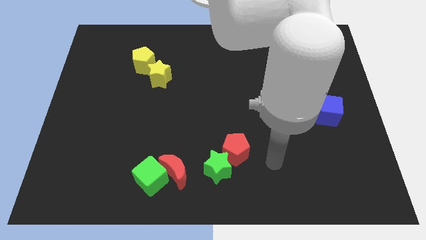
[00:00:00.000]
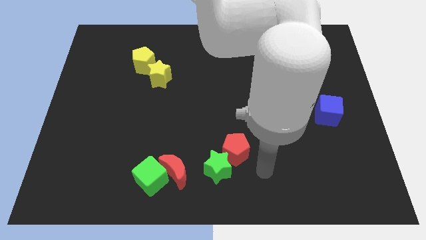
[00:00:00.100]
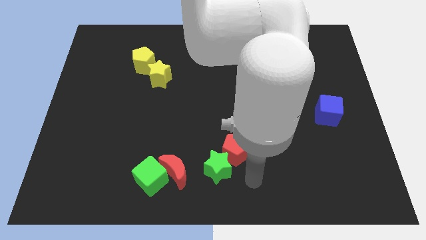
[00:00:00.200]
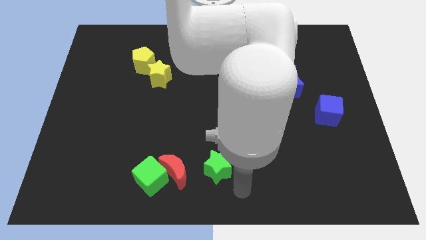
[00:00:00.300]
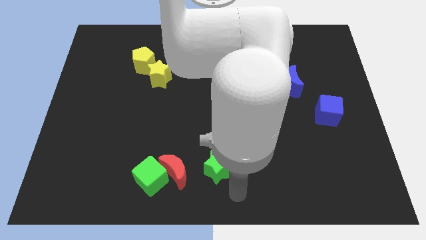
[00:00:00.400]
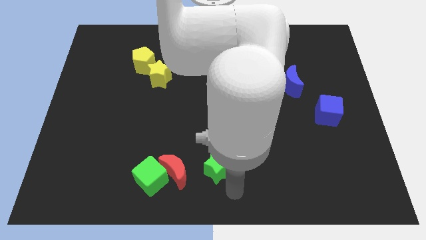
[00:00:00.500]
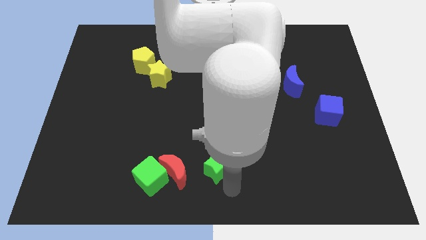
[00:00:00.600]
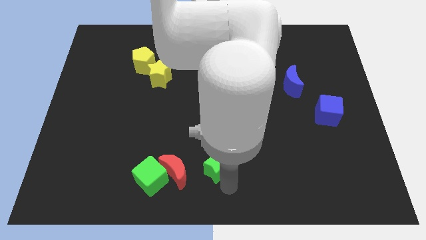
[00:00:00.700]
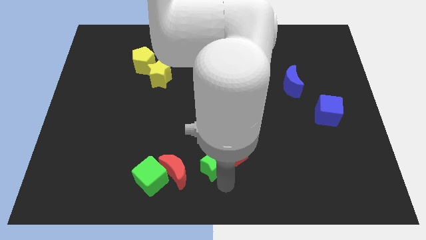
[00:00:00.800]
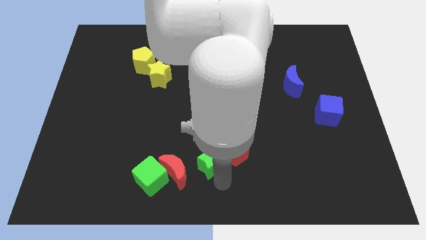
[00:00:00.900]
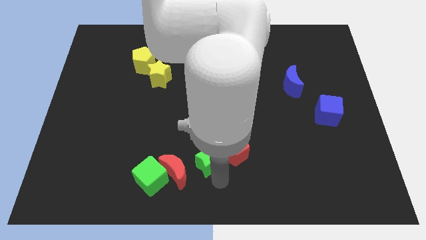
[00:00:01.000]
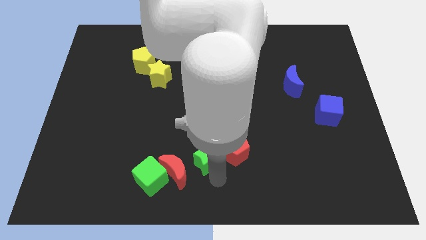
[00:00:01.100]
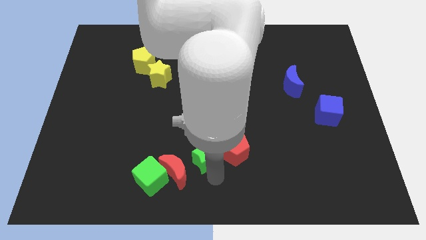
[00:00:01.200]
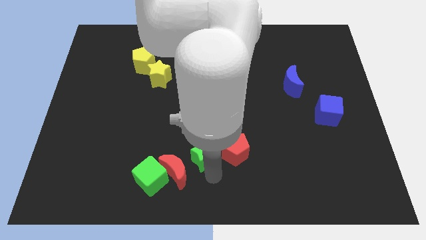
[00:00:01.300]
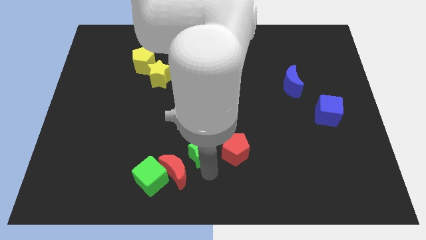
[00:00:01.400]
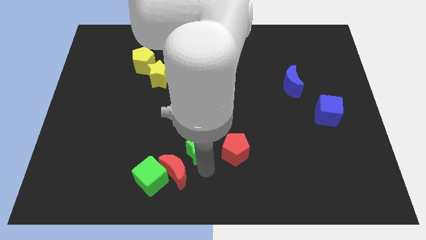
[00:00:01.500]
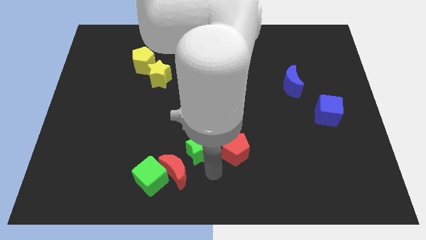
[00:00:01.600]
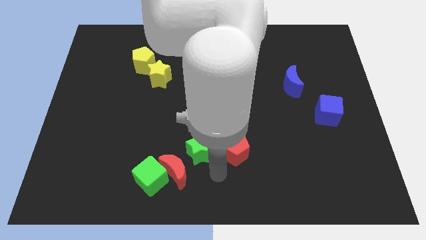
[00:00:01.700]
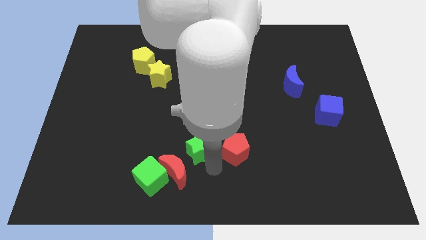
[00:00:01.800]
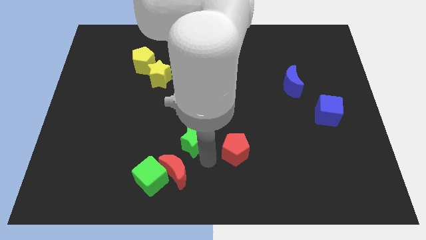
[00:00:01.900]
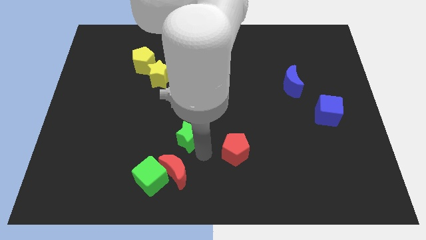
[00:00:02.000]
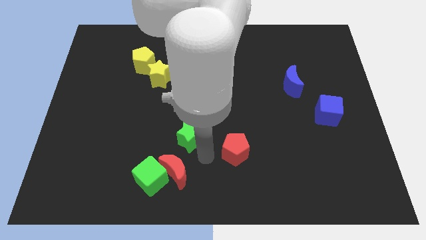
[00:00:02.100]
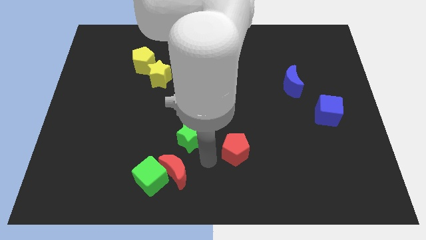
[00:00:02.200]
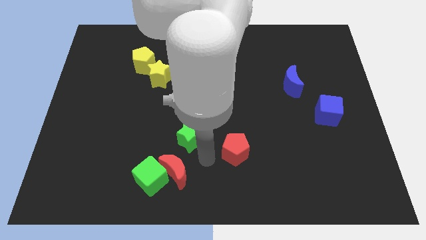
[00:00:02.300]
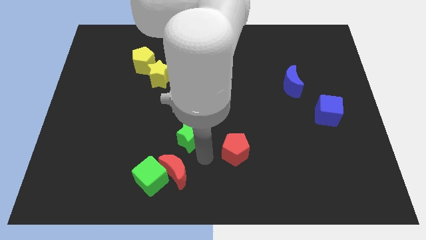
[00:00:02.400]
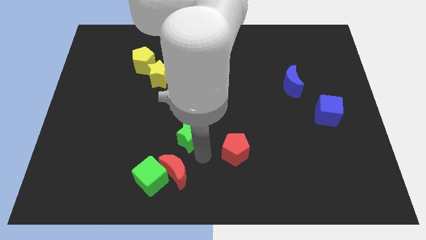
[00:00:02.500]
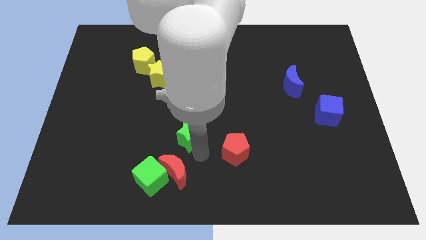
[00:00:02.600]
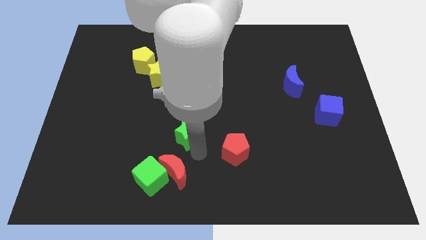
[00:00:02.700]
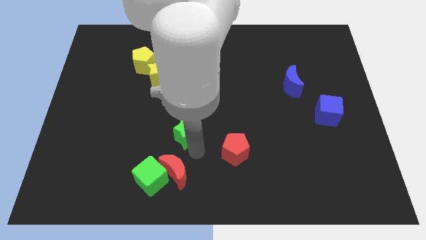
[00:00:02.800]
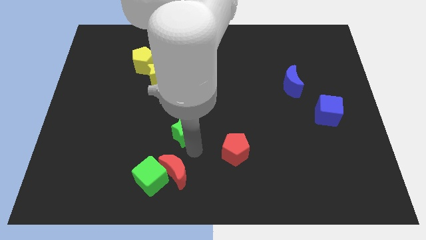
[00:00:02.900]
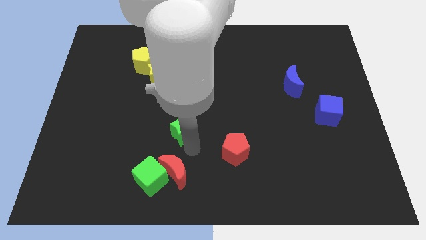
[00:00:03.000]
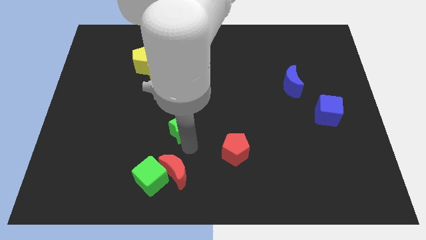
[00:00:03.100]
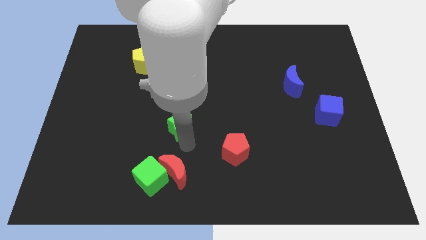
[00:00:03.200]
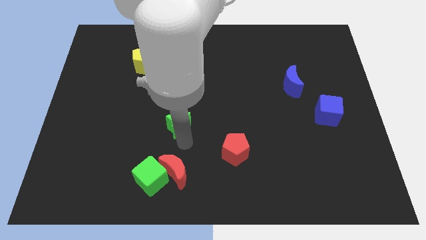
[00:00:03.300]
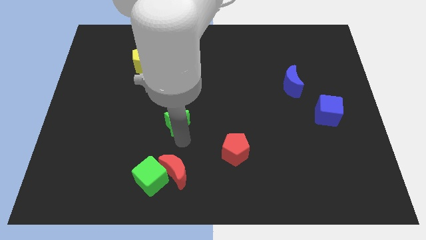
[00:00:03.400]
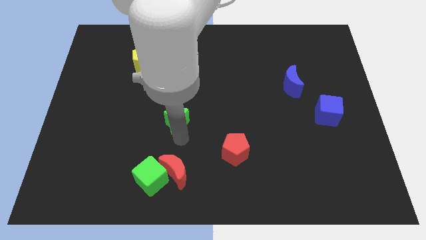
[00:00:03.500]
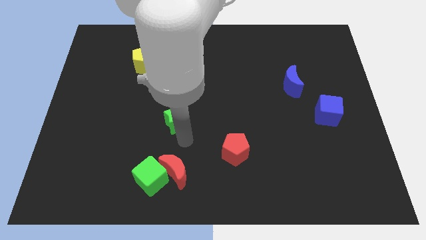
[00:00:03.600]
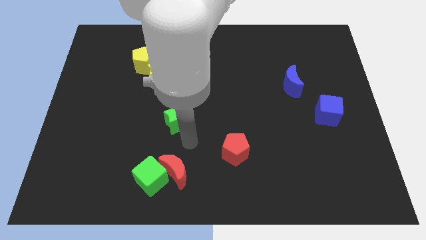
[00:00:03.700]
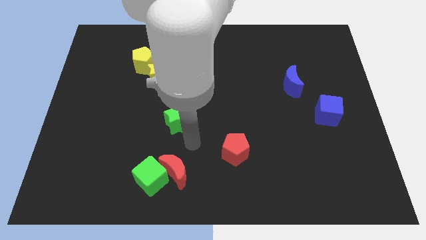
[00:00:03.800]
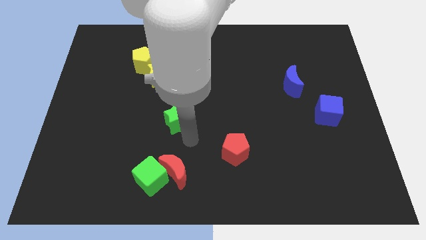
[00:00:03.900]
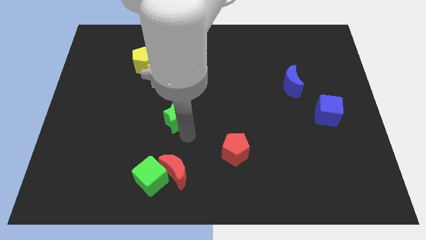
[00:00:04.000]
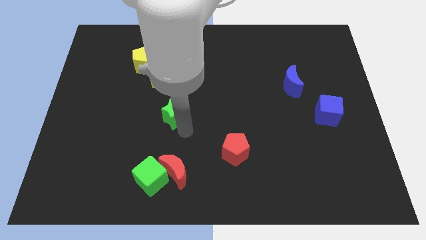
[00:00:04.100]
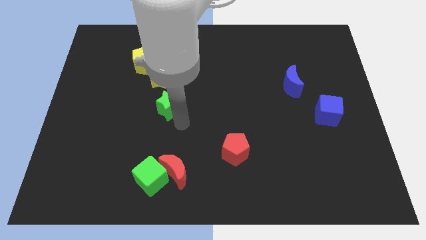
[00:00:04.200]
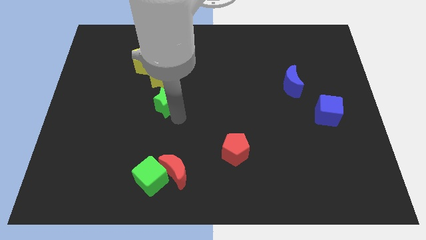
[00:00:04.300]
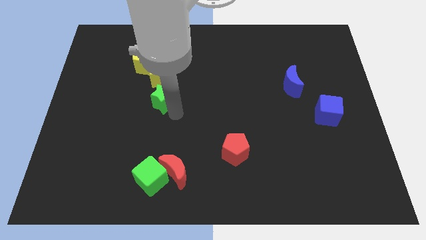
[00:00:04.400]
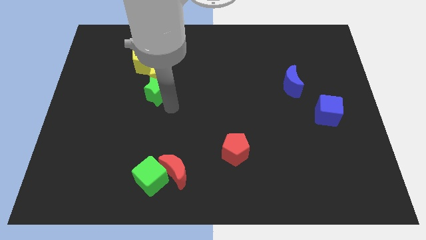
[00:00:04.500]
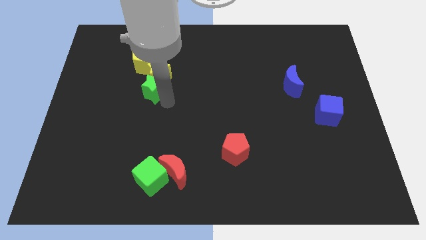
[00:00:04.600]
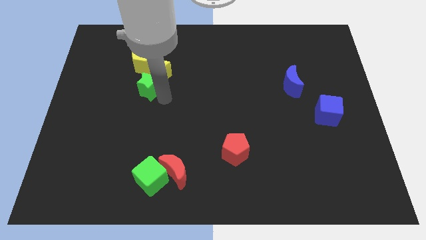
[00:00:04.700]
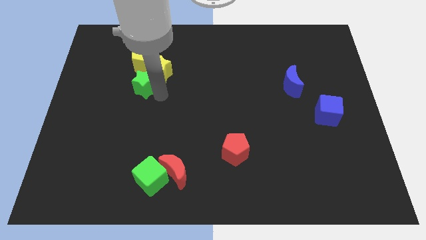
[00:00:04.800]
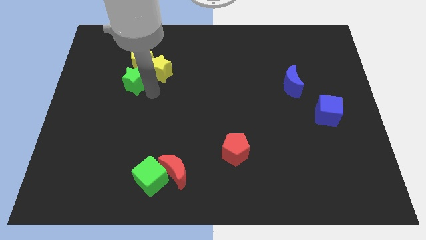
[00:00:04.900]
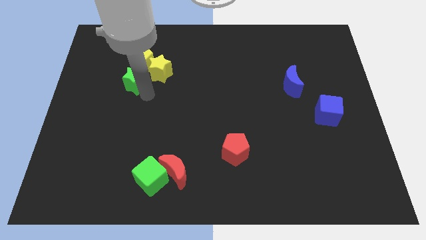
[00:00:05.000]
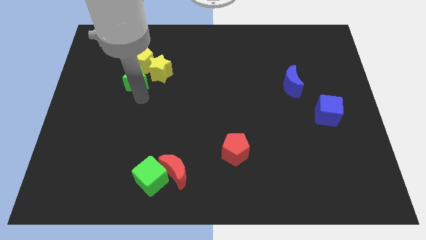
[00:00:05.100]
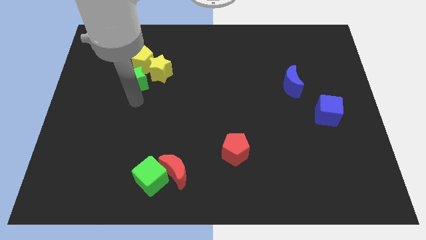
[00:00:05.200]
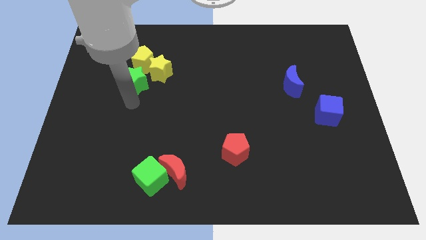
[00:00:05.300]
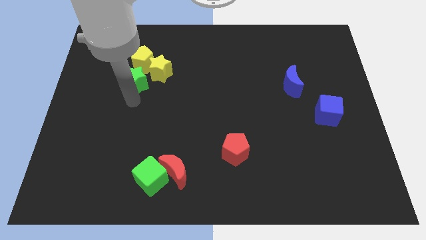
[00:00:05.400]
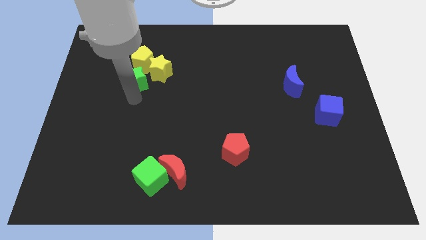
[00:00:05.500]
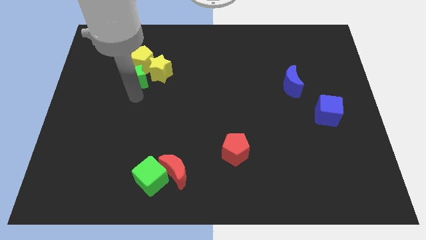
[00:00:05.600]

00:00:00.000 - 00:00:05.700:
move the green star next to the yellow pentagon

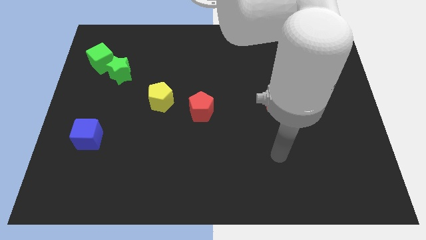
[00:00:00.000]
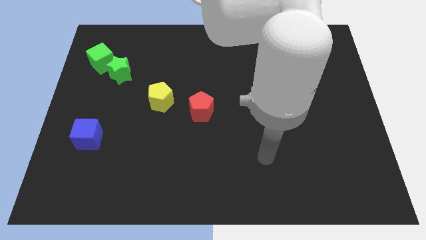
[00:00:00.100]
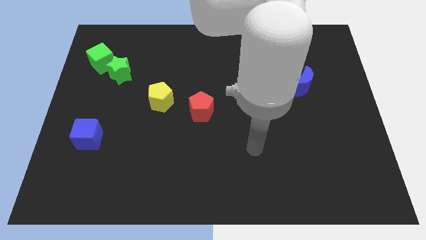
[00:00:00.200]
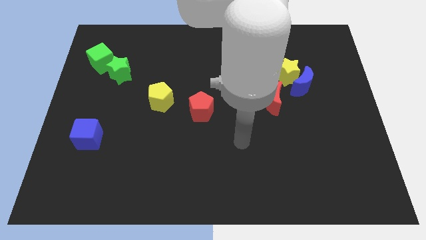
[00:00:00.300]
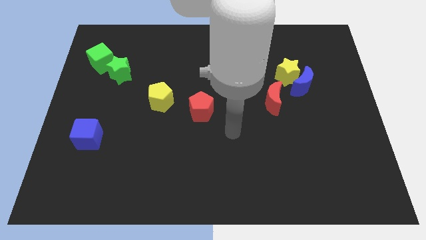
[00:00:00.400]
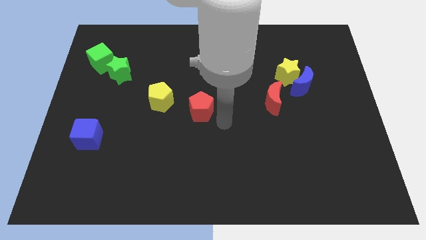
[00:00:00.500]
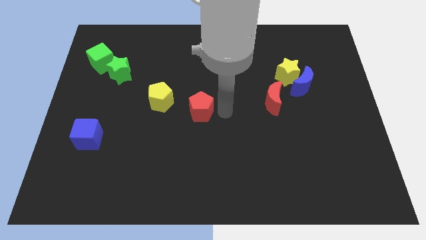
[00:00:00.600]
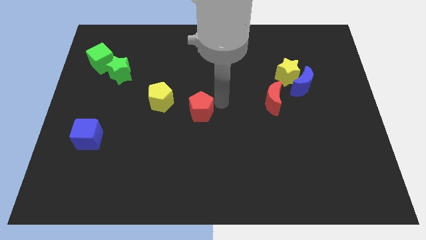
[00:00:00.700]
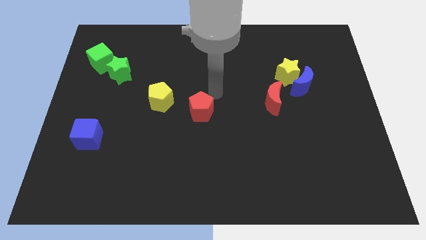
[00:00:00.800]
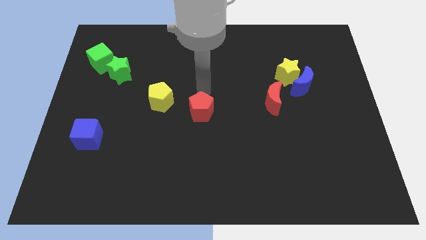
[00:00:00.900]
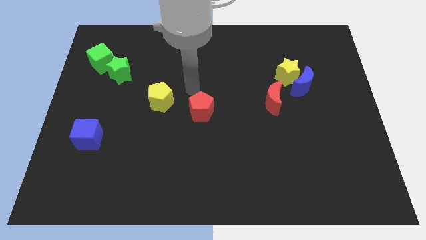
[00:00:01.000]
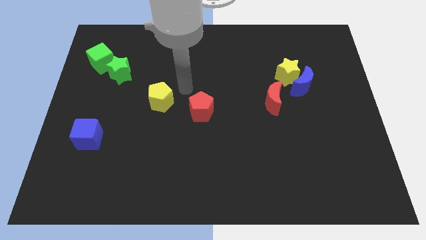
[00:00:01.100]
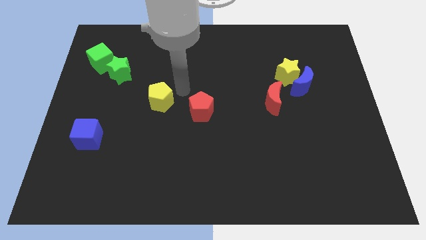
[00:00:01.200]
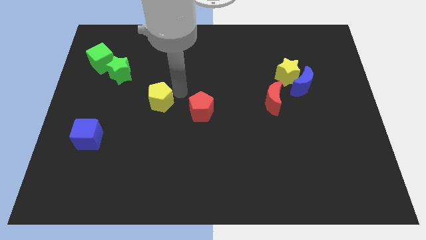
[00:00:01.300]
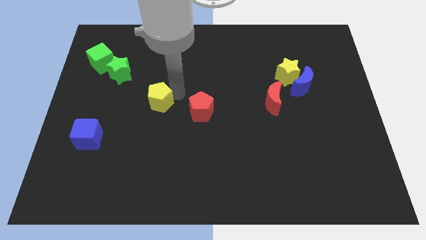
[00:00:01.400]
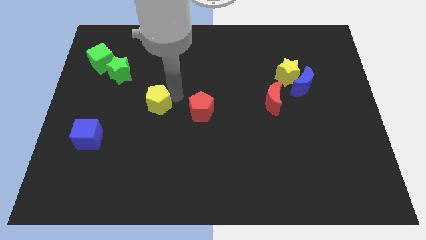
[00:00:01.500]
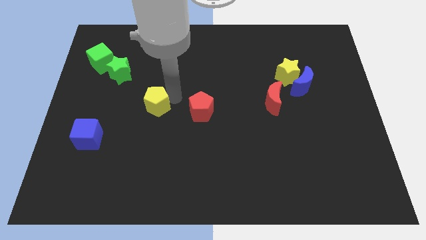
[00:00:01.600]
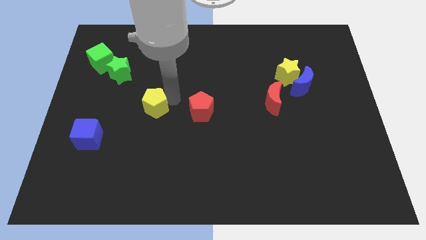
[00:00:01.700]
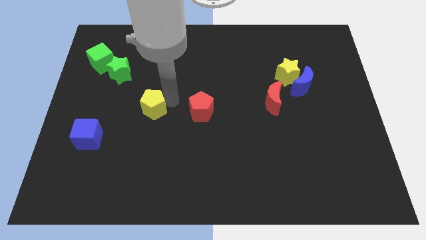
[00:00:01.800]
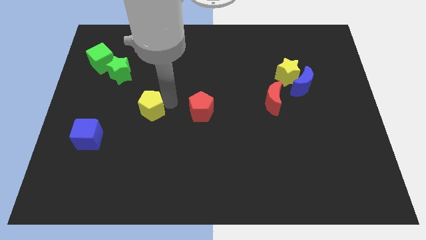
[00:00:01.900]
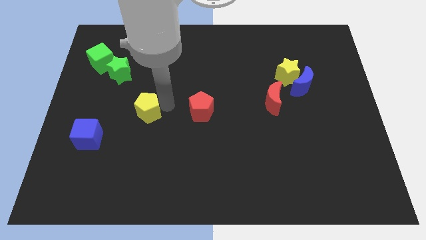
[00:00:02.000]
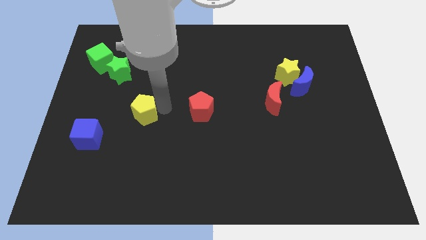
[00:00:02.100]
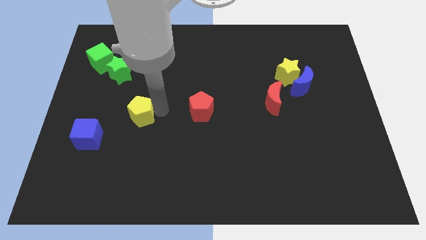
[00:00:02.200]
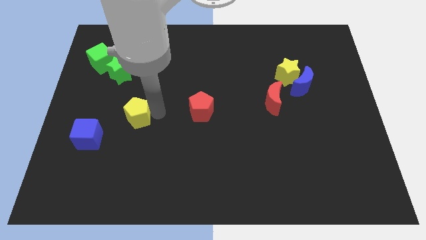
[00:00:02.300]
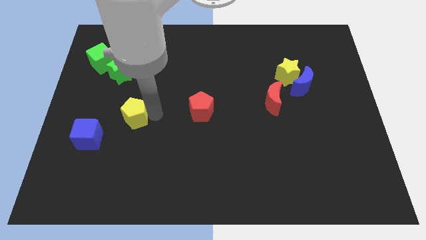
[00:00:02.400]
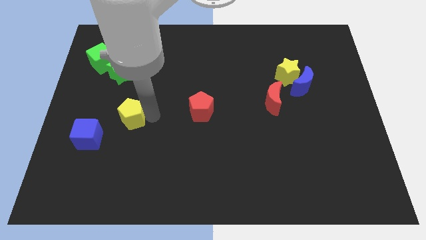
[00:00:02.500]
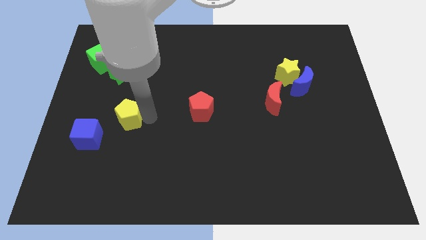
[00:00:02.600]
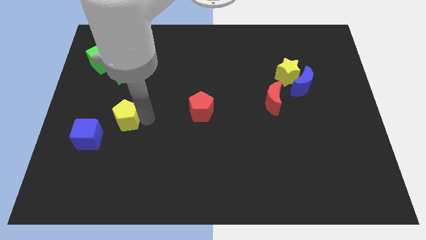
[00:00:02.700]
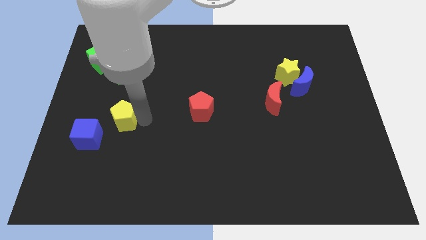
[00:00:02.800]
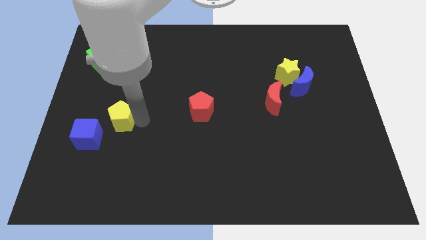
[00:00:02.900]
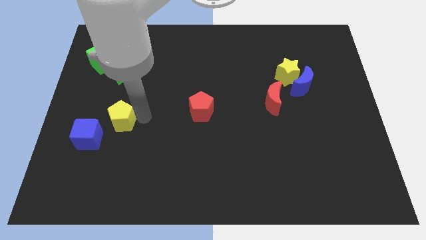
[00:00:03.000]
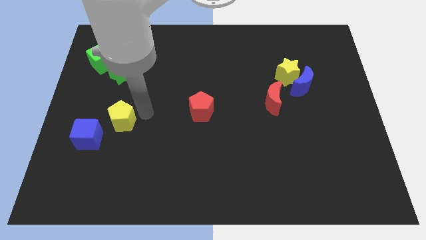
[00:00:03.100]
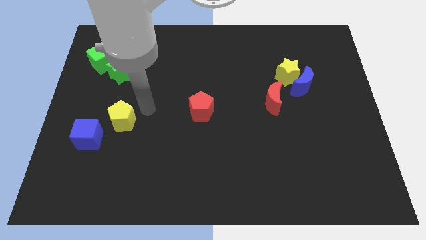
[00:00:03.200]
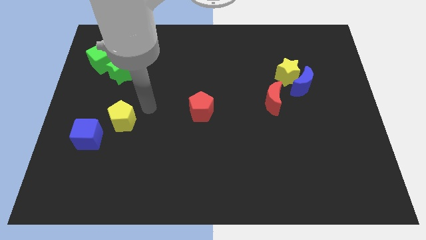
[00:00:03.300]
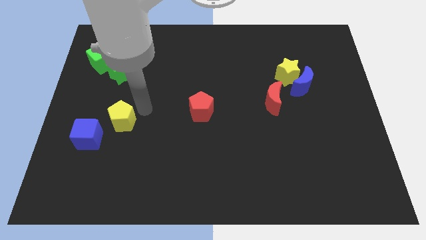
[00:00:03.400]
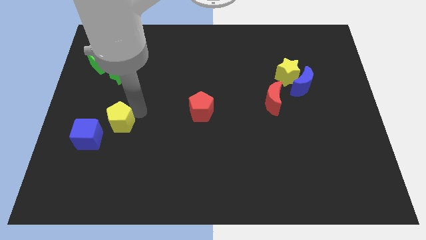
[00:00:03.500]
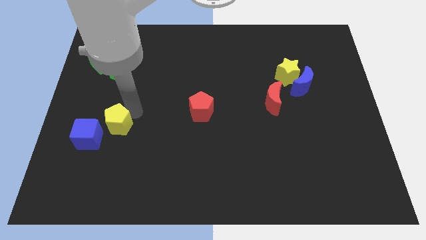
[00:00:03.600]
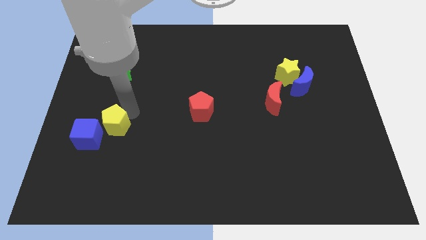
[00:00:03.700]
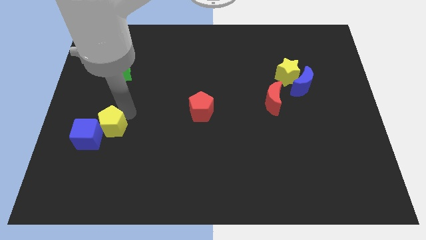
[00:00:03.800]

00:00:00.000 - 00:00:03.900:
move the yellow pentagon next to the blue cube
